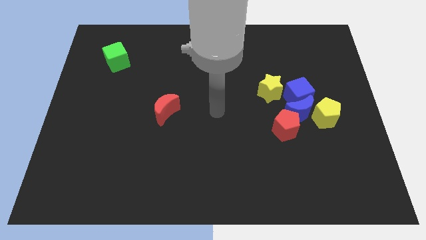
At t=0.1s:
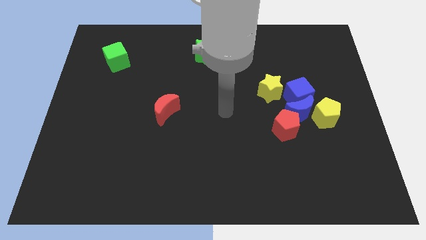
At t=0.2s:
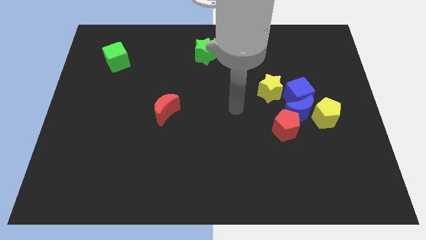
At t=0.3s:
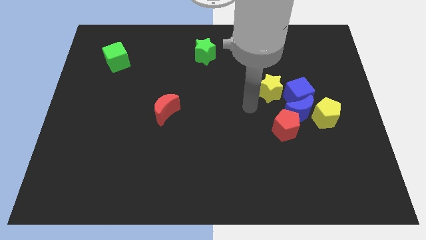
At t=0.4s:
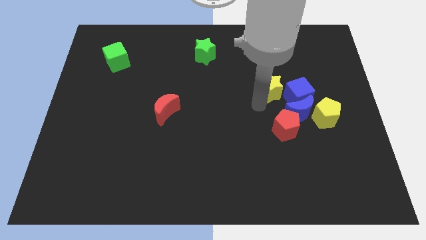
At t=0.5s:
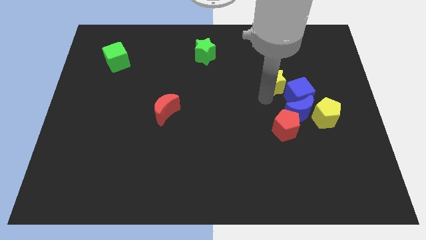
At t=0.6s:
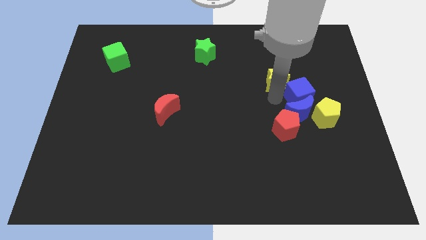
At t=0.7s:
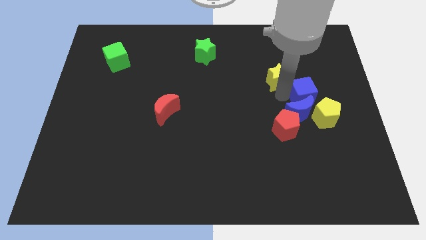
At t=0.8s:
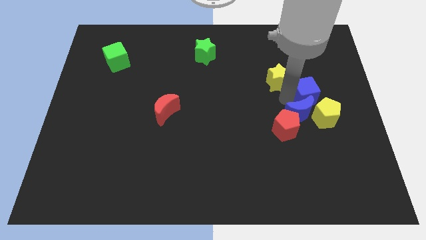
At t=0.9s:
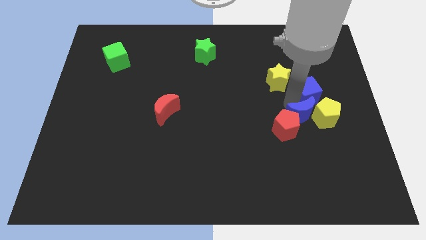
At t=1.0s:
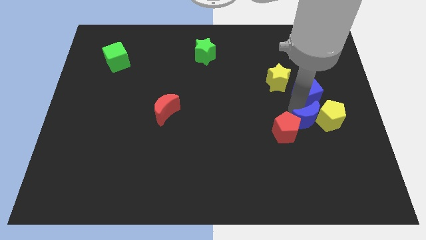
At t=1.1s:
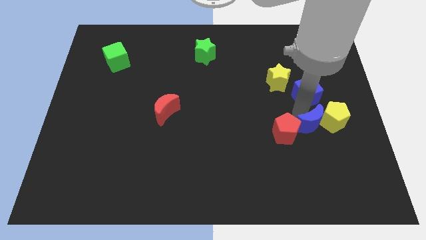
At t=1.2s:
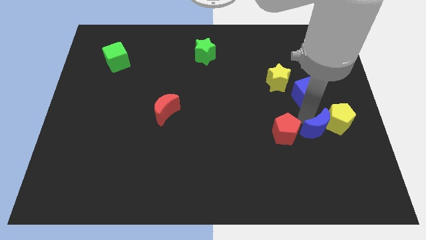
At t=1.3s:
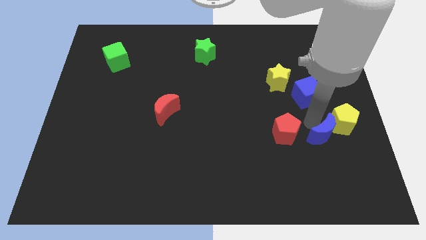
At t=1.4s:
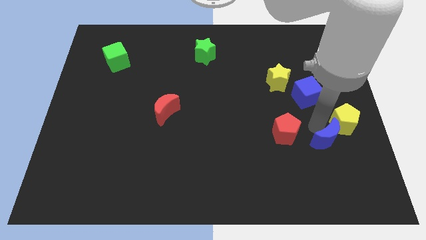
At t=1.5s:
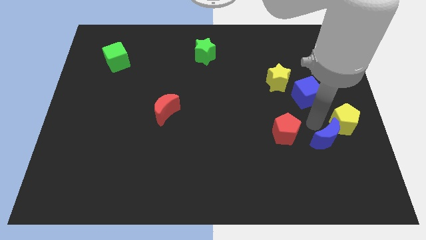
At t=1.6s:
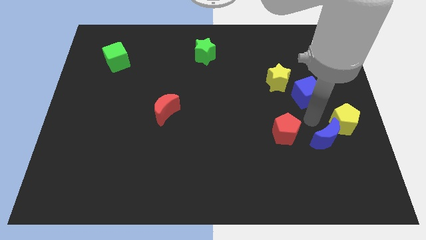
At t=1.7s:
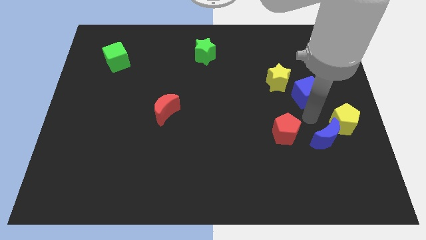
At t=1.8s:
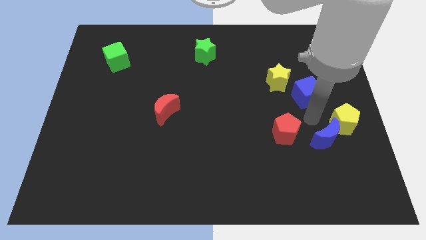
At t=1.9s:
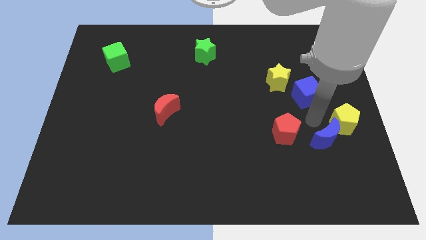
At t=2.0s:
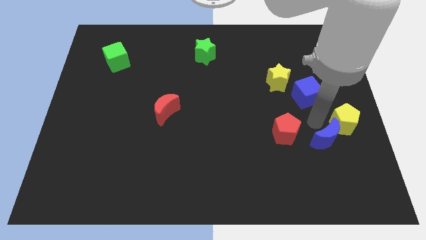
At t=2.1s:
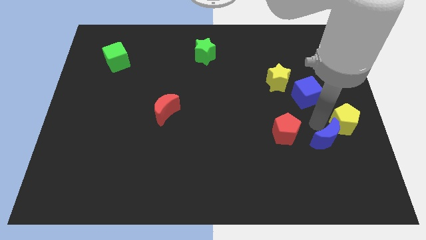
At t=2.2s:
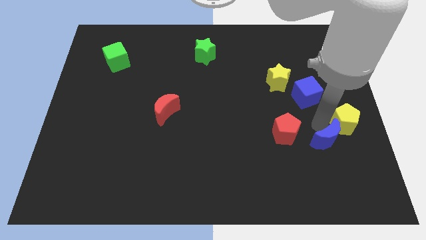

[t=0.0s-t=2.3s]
separate the blue moon from the clump

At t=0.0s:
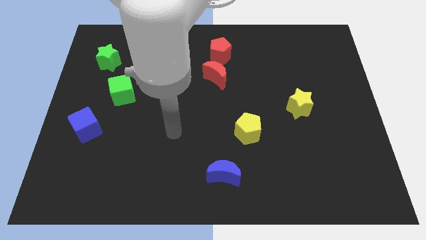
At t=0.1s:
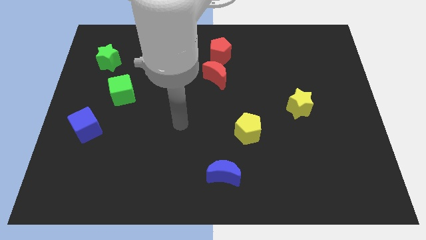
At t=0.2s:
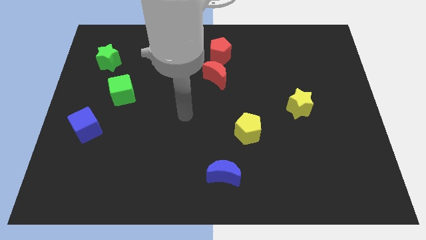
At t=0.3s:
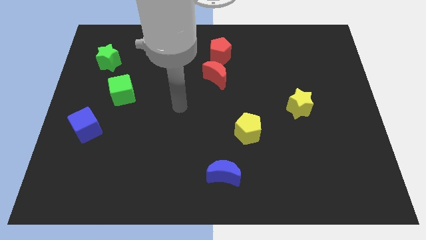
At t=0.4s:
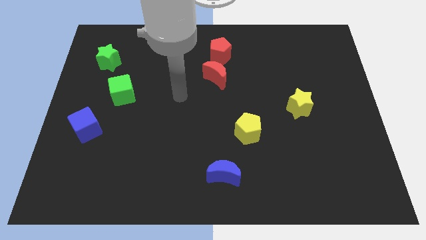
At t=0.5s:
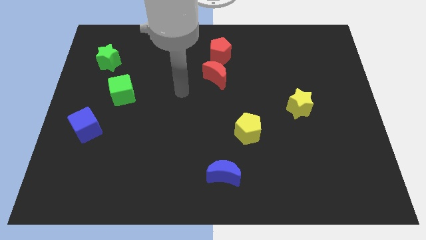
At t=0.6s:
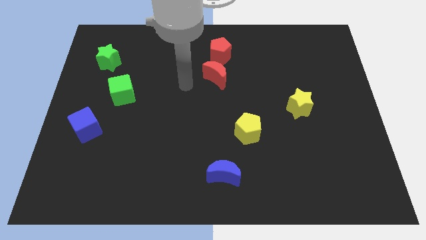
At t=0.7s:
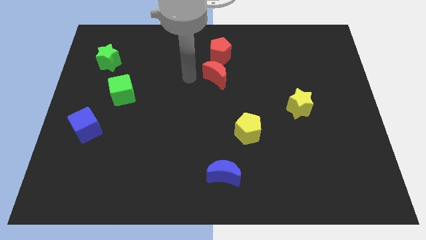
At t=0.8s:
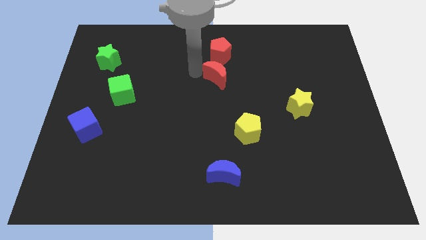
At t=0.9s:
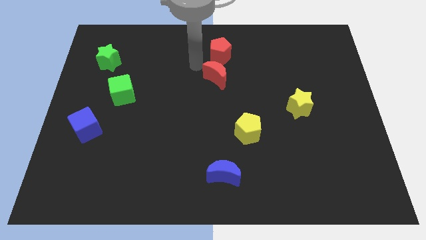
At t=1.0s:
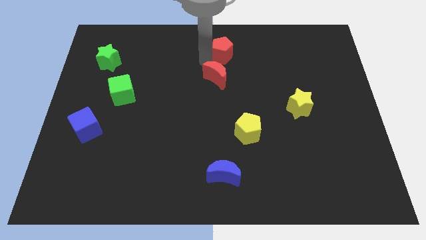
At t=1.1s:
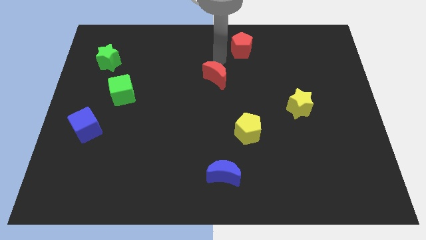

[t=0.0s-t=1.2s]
pull the red moon apart from the red pentagon

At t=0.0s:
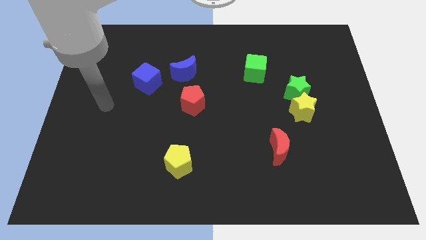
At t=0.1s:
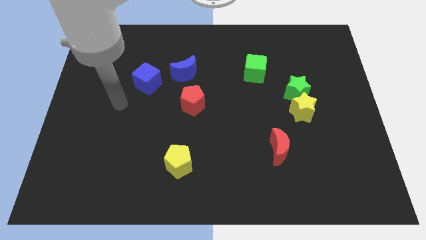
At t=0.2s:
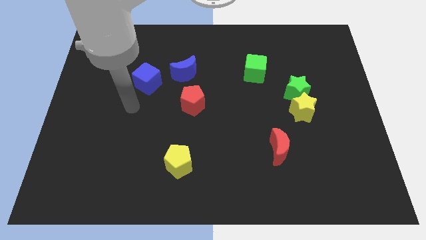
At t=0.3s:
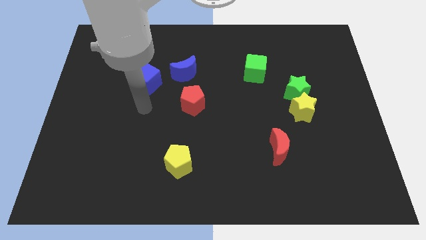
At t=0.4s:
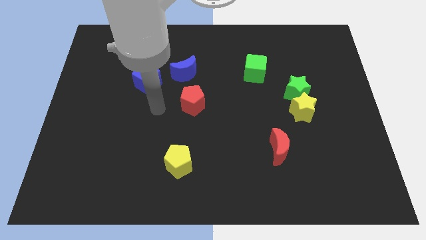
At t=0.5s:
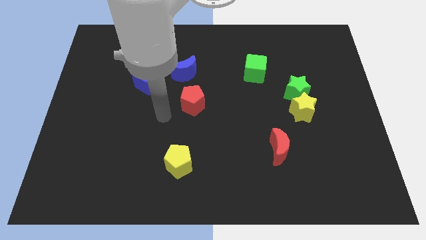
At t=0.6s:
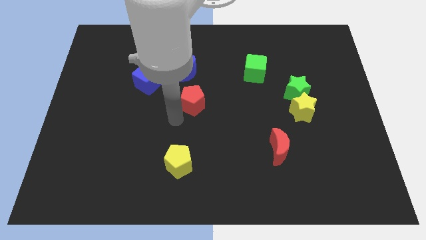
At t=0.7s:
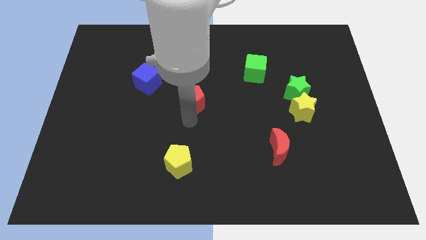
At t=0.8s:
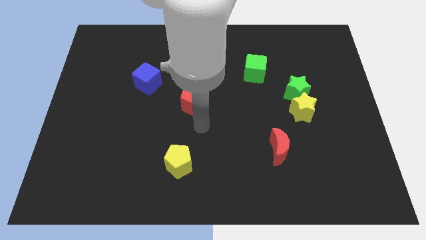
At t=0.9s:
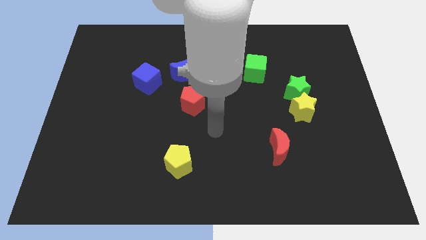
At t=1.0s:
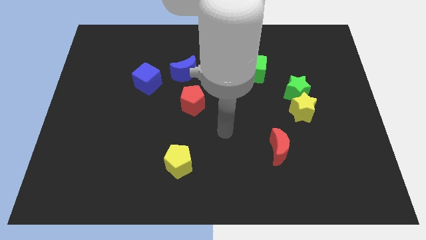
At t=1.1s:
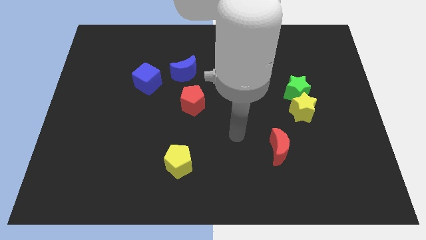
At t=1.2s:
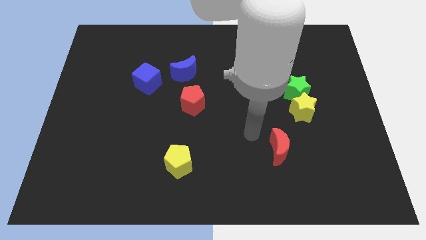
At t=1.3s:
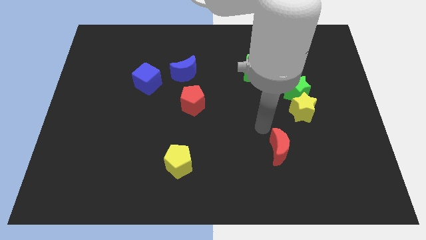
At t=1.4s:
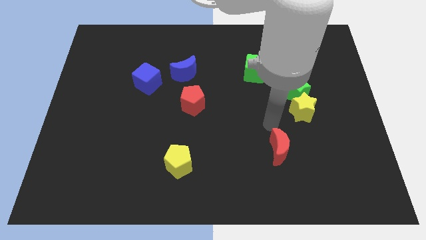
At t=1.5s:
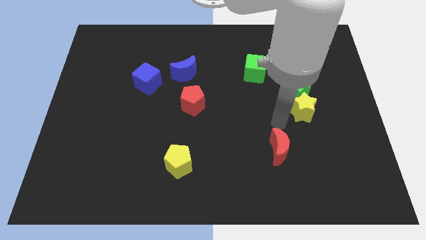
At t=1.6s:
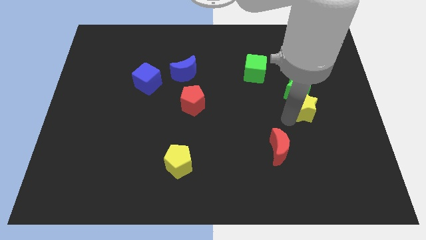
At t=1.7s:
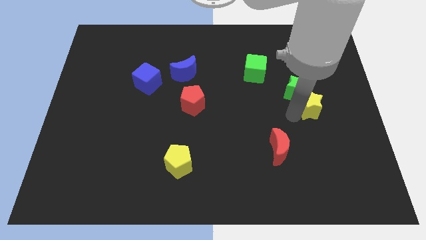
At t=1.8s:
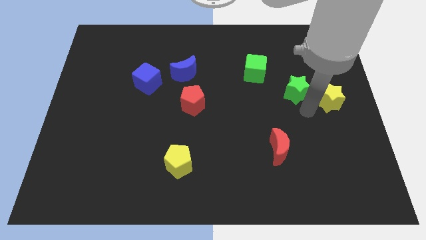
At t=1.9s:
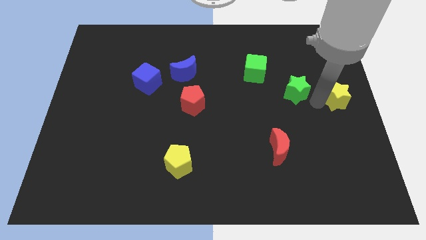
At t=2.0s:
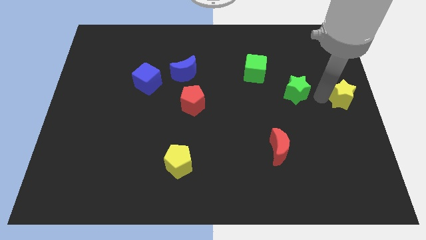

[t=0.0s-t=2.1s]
separate the green star from the yellow star

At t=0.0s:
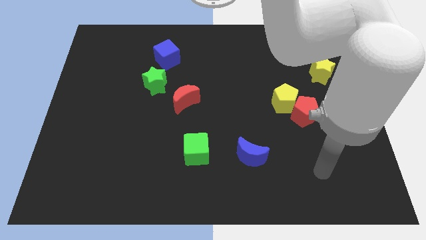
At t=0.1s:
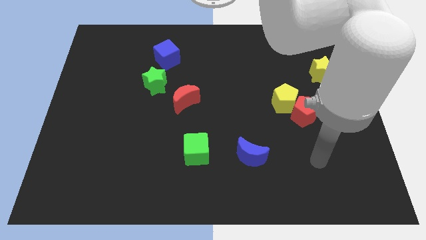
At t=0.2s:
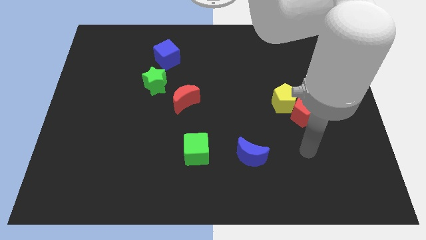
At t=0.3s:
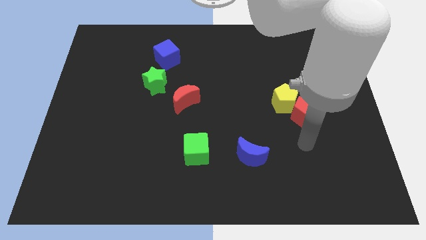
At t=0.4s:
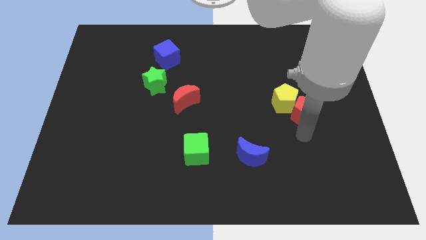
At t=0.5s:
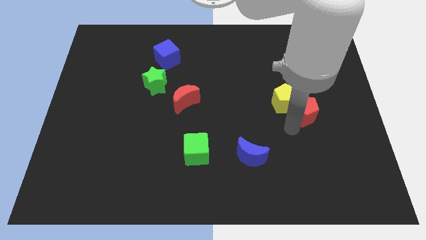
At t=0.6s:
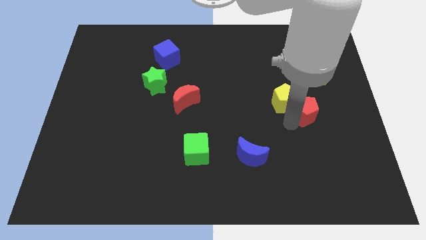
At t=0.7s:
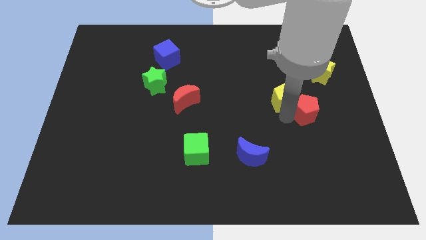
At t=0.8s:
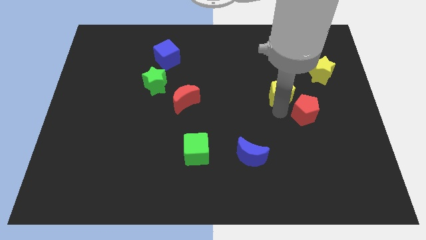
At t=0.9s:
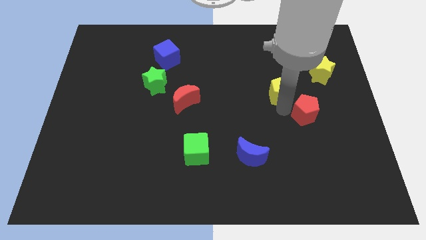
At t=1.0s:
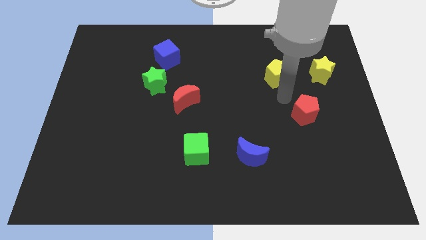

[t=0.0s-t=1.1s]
move the red pentagon away from the yellow pentagon

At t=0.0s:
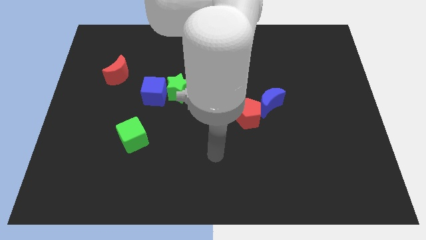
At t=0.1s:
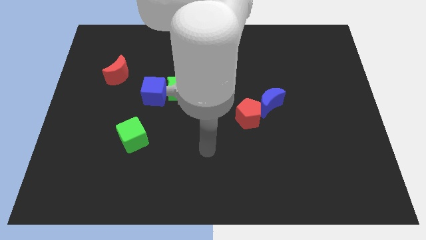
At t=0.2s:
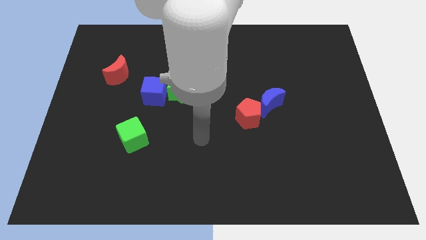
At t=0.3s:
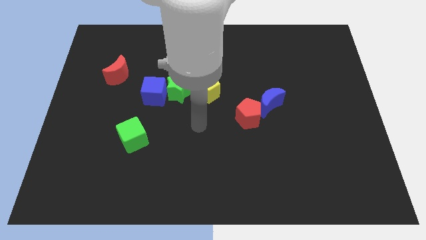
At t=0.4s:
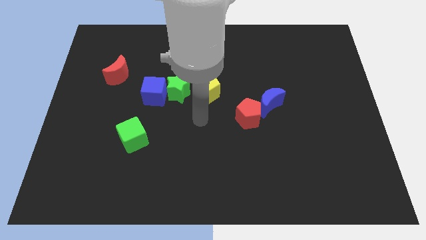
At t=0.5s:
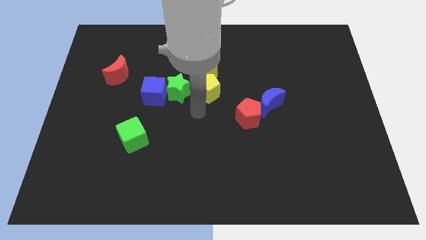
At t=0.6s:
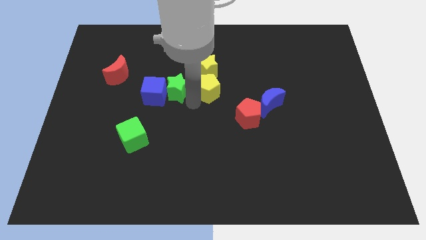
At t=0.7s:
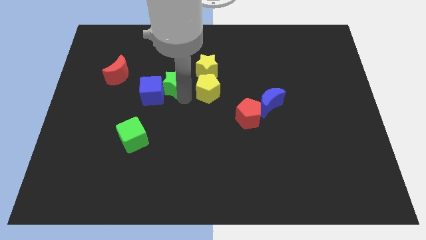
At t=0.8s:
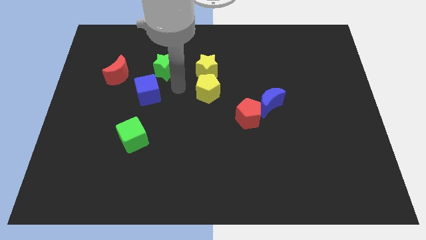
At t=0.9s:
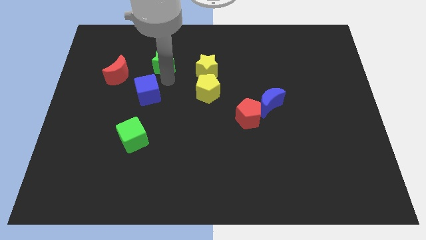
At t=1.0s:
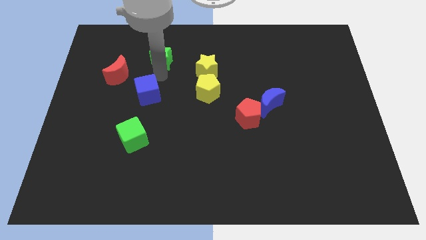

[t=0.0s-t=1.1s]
move the blue cube away from the green star

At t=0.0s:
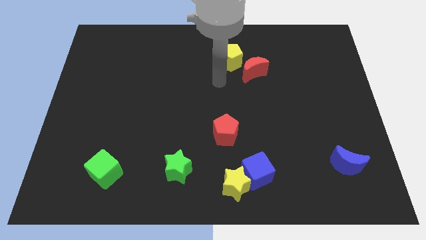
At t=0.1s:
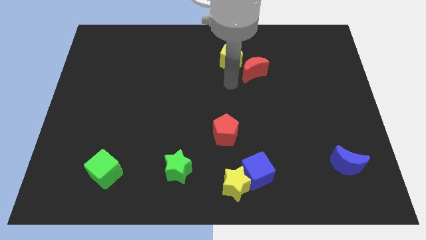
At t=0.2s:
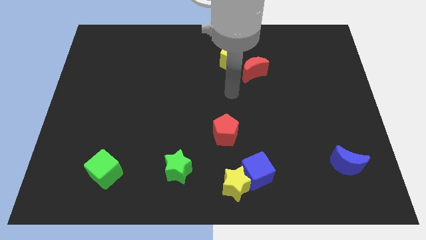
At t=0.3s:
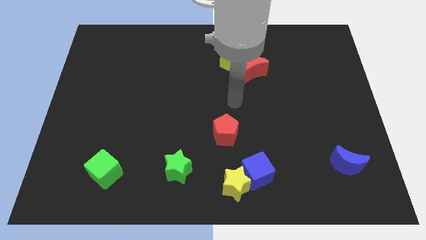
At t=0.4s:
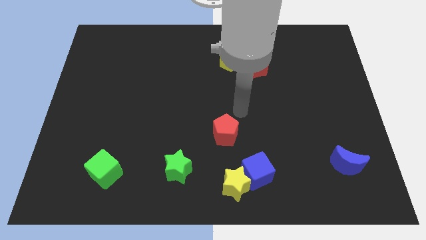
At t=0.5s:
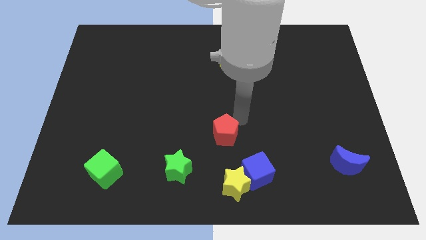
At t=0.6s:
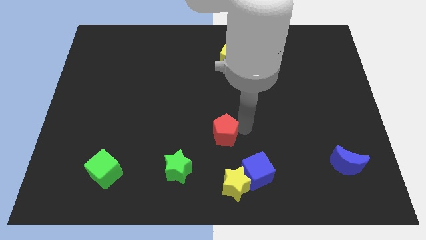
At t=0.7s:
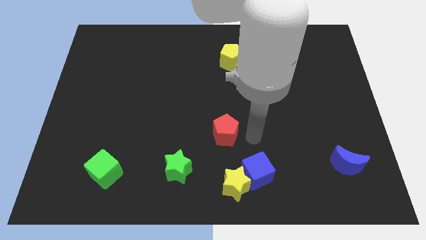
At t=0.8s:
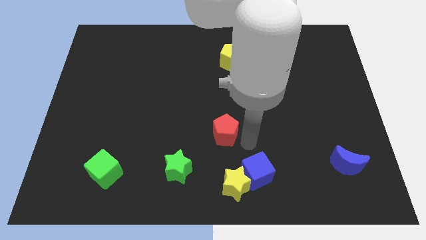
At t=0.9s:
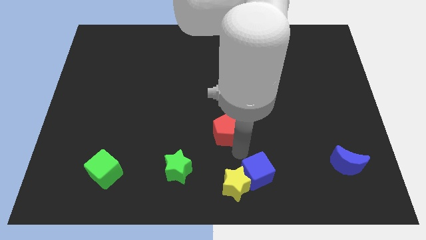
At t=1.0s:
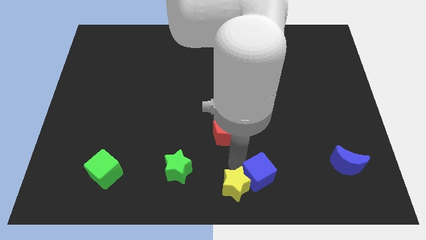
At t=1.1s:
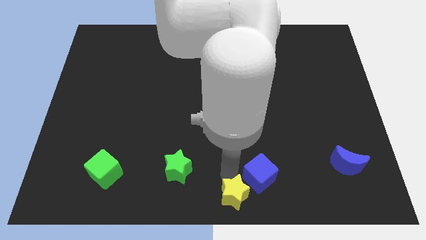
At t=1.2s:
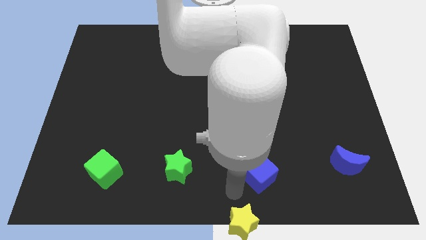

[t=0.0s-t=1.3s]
pull the blue cube apart from the yellow star
